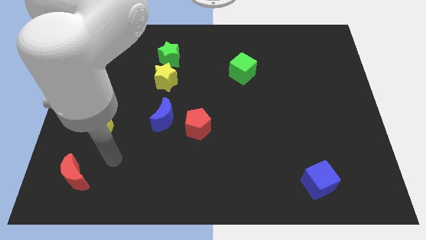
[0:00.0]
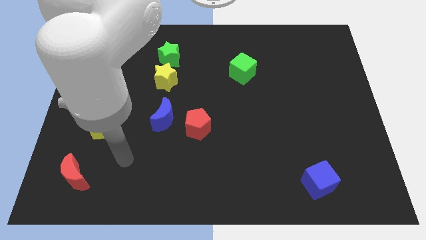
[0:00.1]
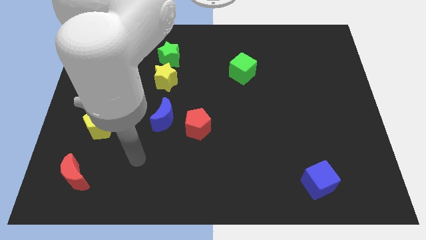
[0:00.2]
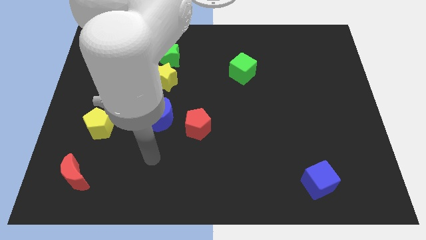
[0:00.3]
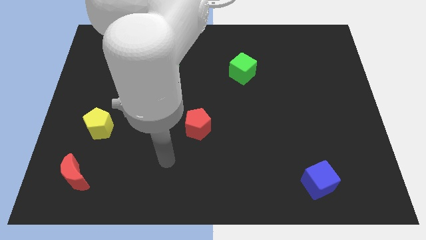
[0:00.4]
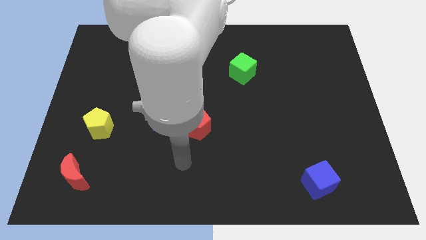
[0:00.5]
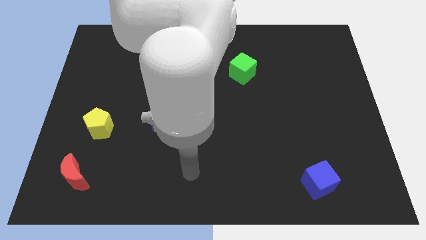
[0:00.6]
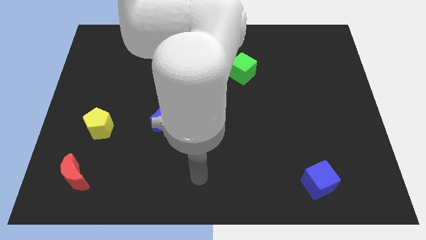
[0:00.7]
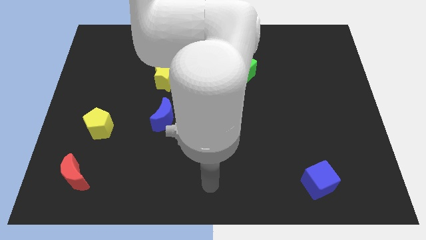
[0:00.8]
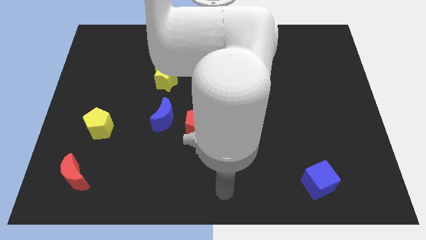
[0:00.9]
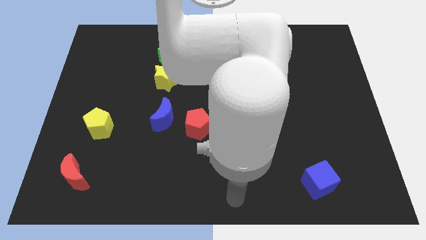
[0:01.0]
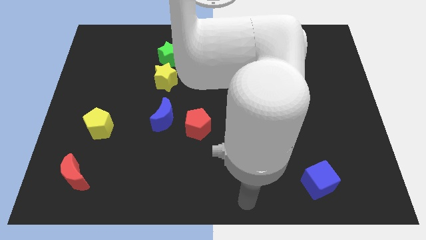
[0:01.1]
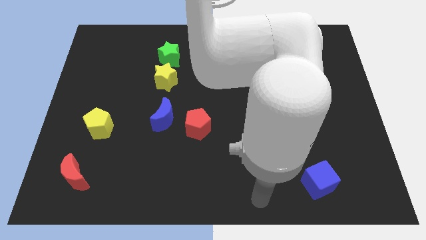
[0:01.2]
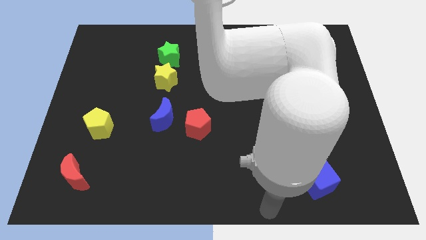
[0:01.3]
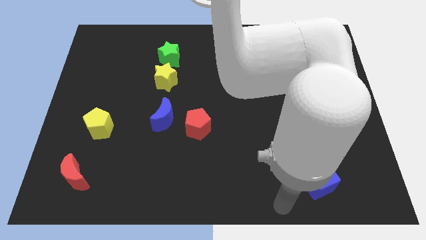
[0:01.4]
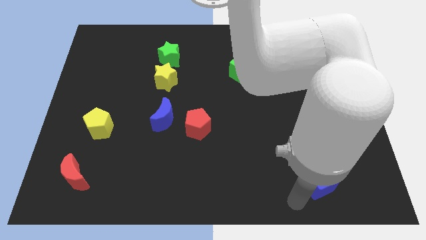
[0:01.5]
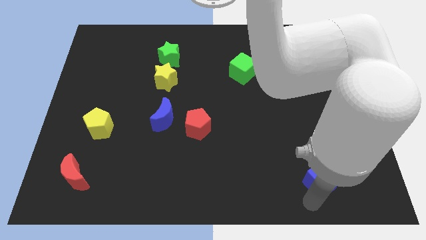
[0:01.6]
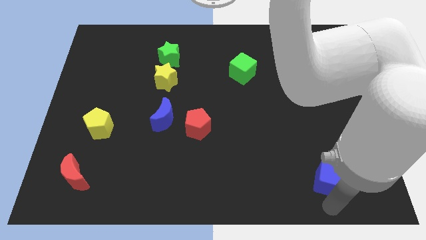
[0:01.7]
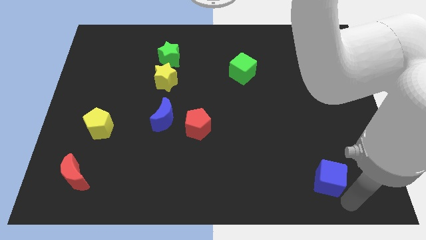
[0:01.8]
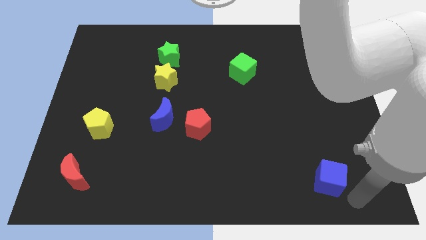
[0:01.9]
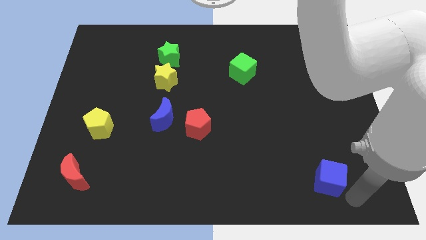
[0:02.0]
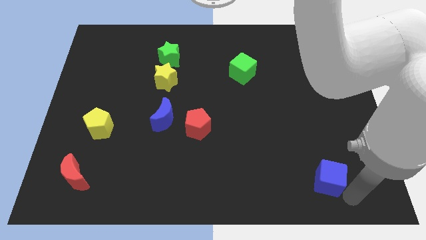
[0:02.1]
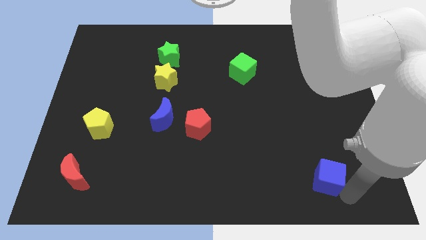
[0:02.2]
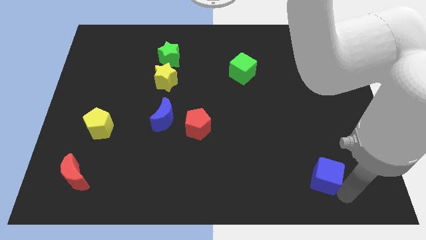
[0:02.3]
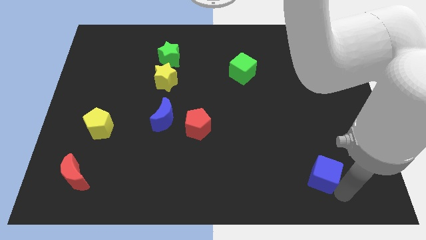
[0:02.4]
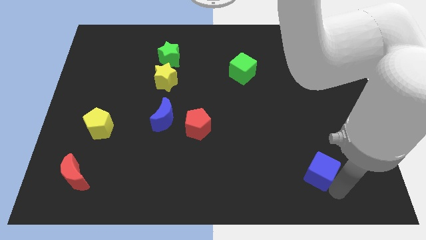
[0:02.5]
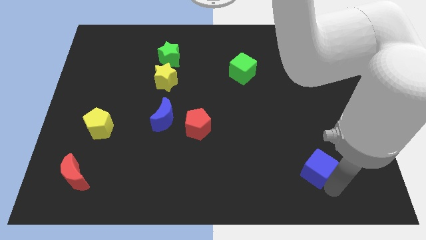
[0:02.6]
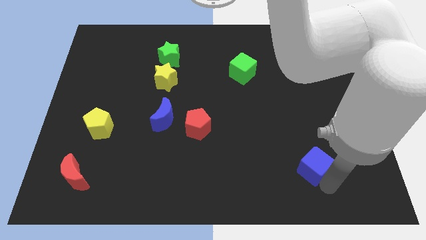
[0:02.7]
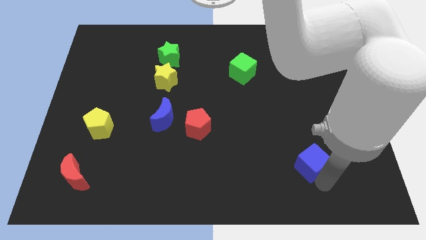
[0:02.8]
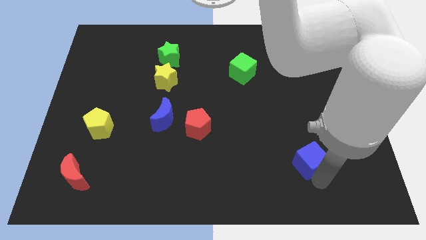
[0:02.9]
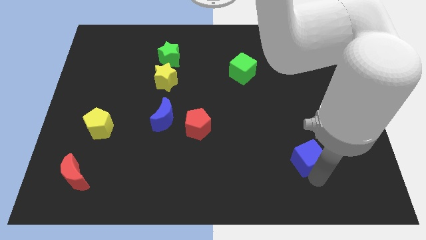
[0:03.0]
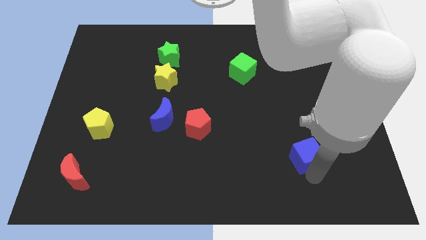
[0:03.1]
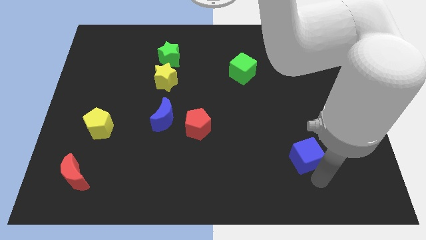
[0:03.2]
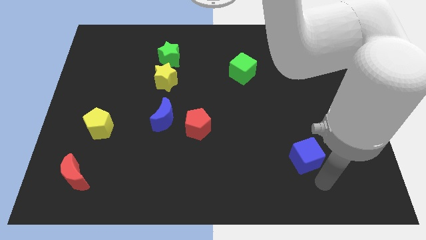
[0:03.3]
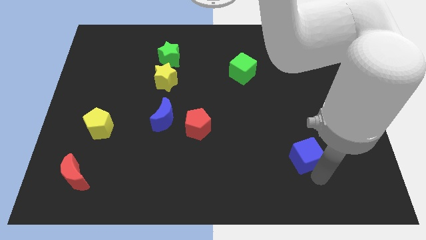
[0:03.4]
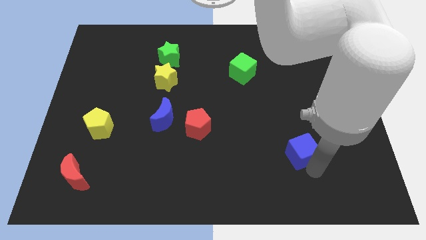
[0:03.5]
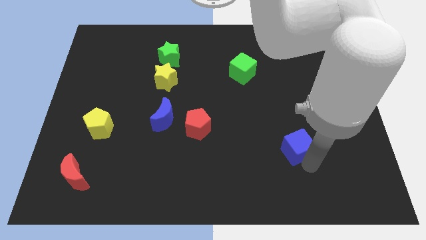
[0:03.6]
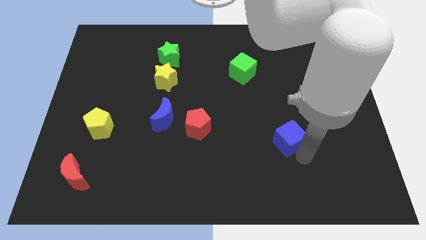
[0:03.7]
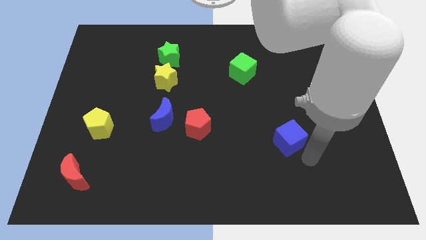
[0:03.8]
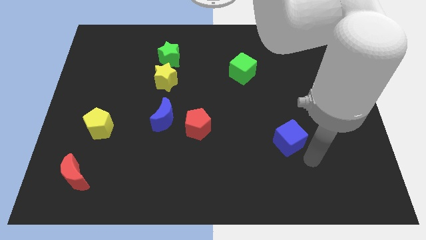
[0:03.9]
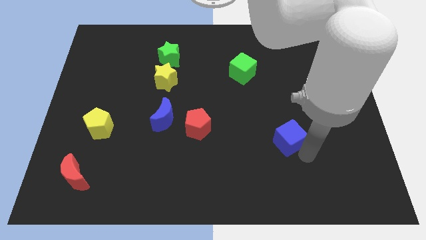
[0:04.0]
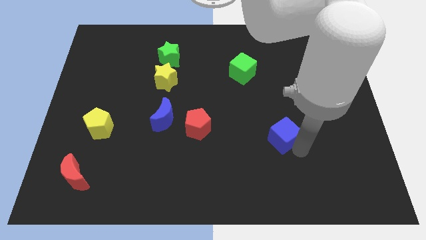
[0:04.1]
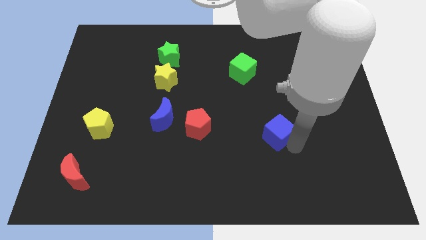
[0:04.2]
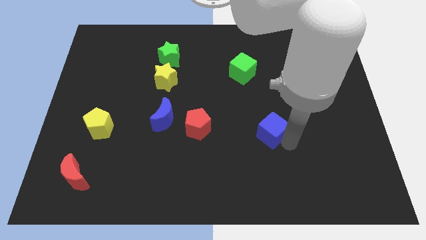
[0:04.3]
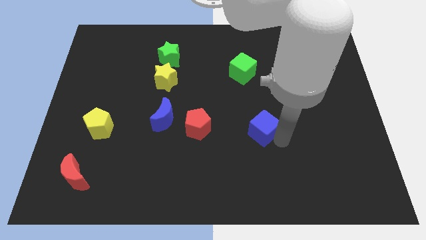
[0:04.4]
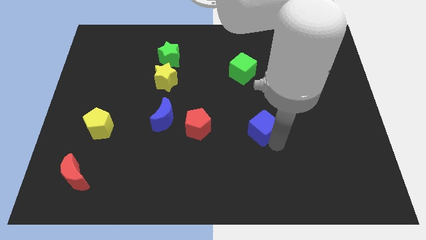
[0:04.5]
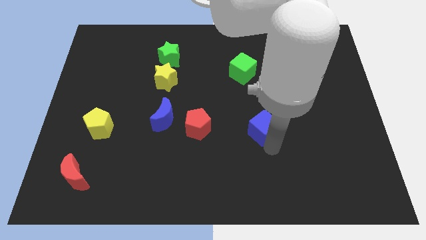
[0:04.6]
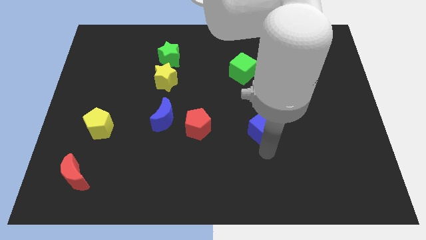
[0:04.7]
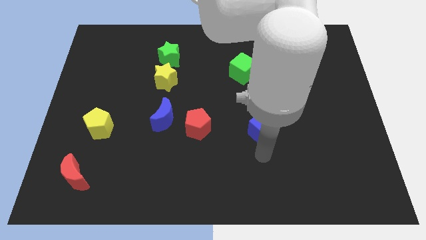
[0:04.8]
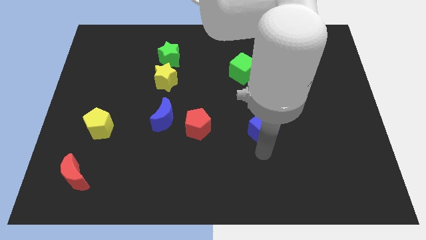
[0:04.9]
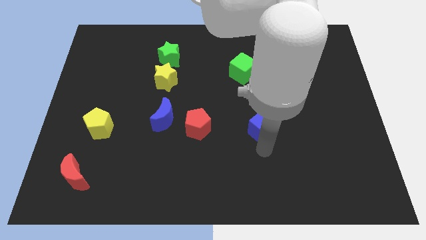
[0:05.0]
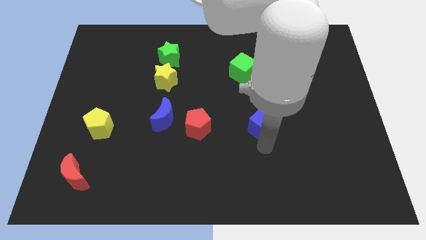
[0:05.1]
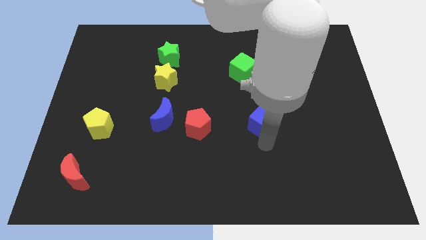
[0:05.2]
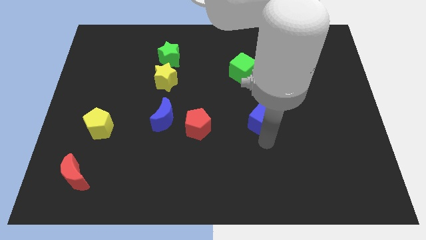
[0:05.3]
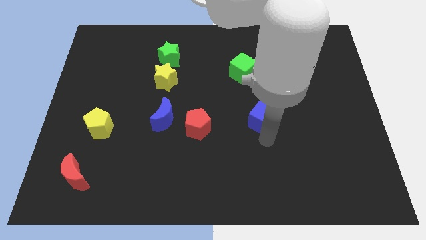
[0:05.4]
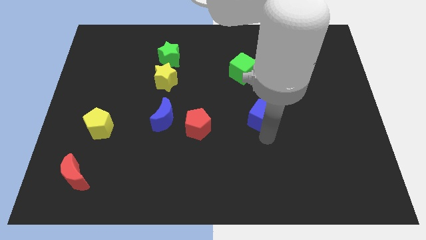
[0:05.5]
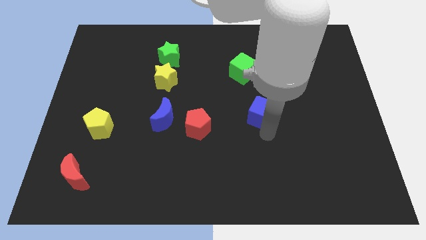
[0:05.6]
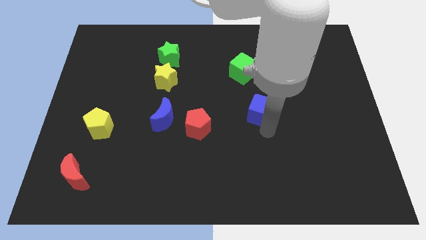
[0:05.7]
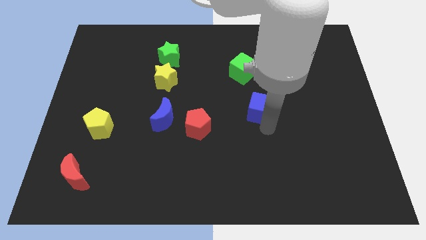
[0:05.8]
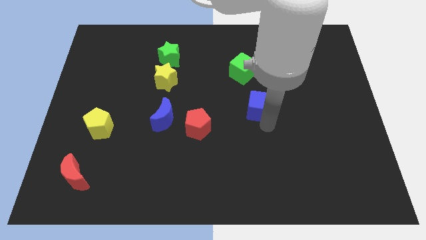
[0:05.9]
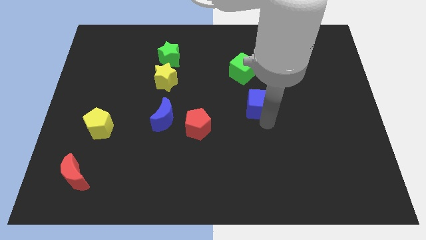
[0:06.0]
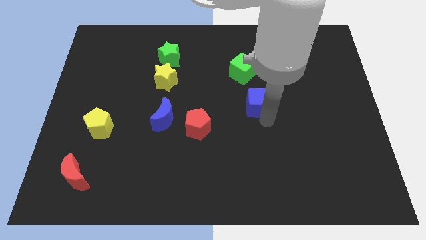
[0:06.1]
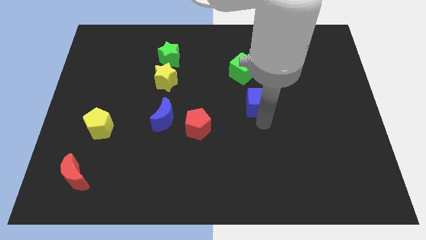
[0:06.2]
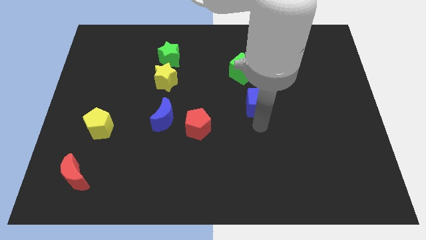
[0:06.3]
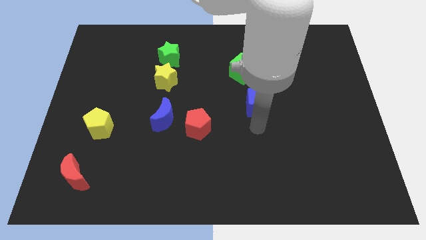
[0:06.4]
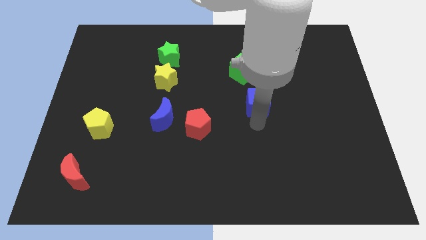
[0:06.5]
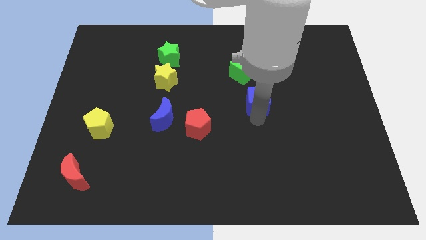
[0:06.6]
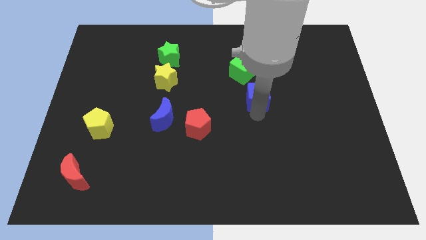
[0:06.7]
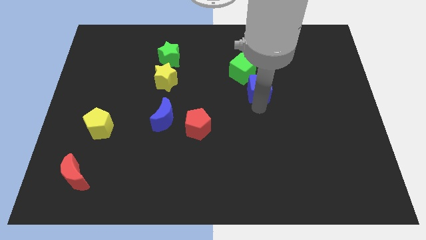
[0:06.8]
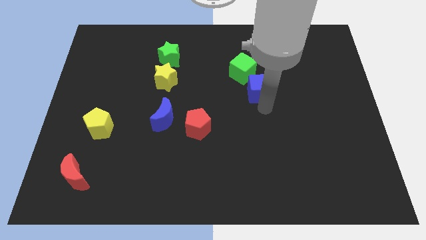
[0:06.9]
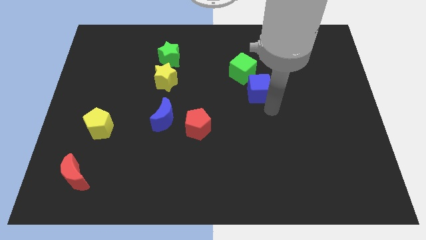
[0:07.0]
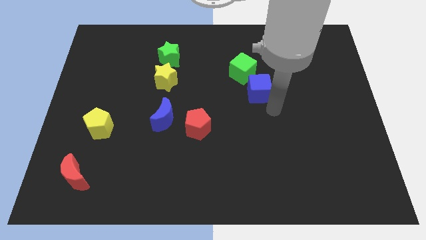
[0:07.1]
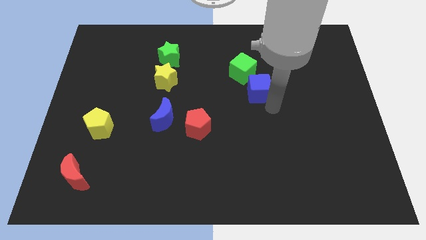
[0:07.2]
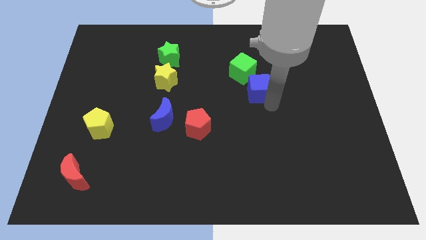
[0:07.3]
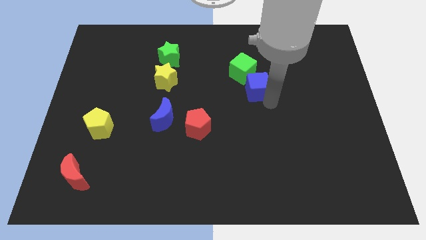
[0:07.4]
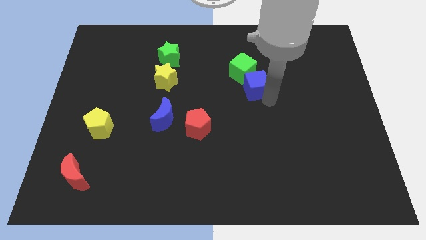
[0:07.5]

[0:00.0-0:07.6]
push the blue cube close to the green cube
